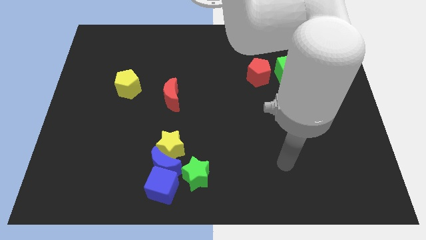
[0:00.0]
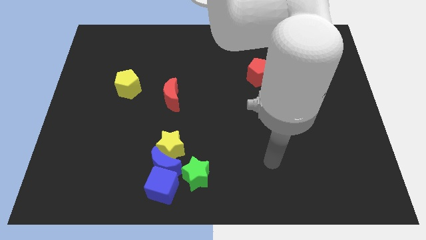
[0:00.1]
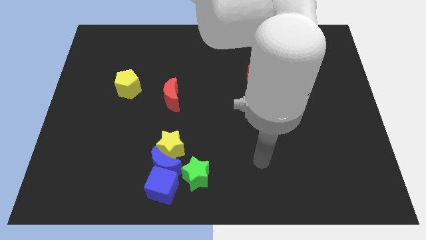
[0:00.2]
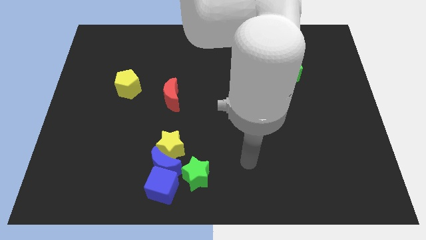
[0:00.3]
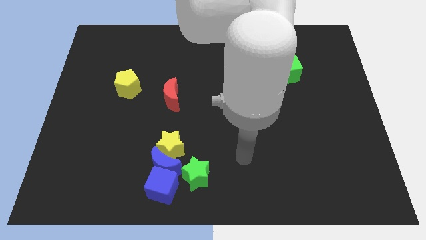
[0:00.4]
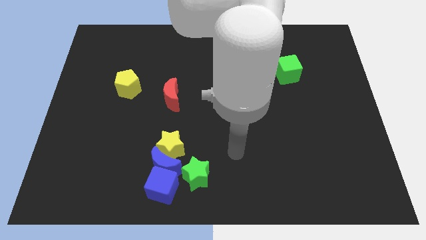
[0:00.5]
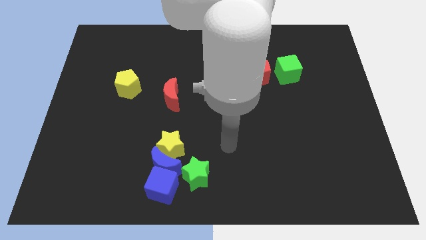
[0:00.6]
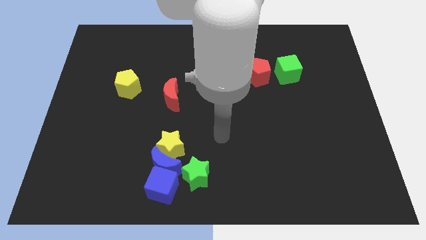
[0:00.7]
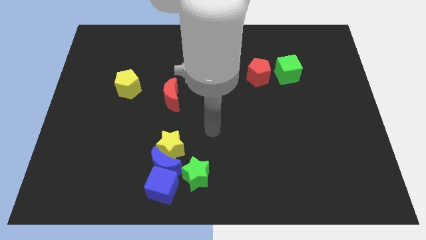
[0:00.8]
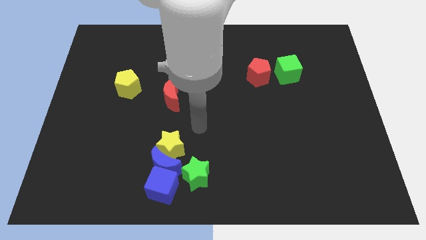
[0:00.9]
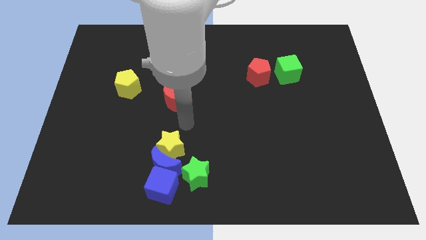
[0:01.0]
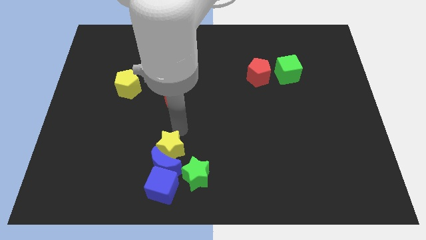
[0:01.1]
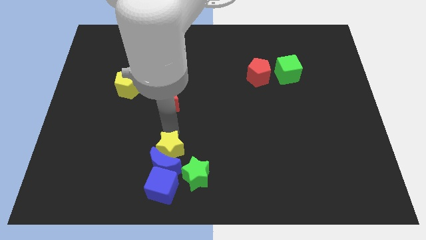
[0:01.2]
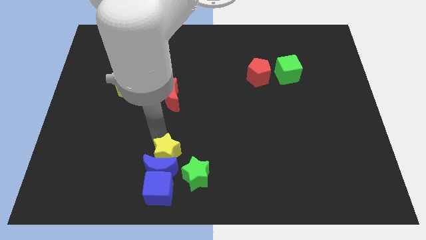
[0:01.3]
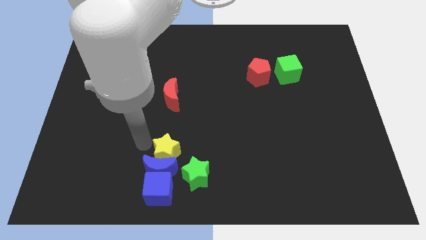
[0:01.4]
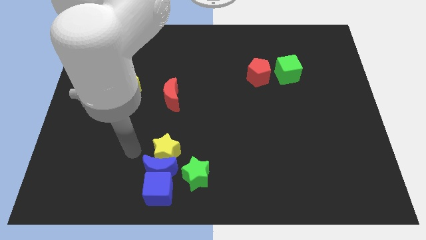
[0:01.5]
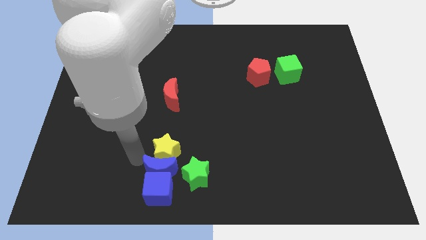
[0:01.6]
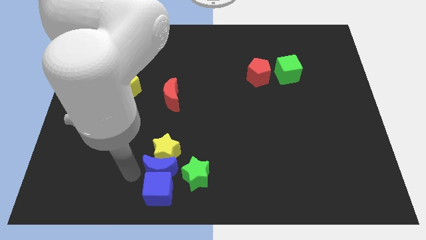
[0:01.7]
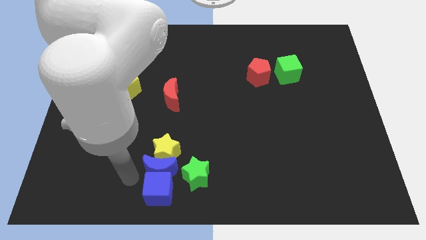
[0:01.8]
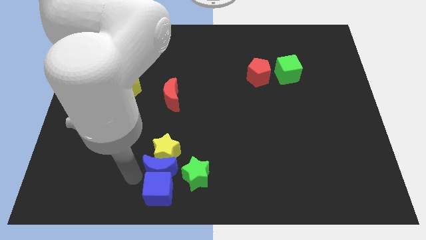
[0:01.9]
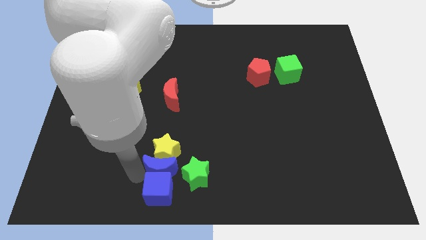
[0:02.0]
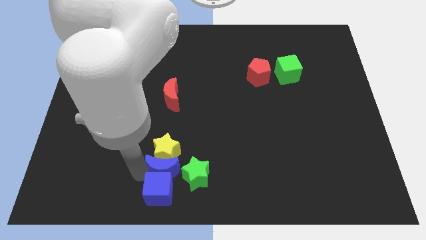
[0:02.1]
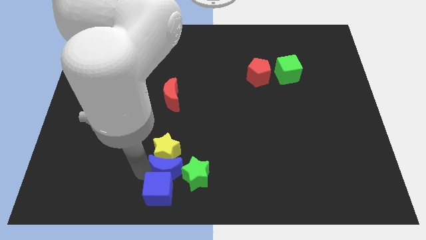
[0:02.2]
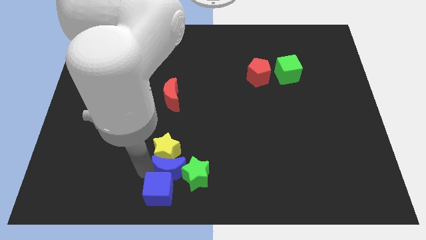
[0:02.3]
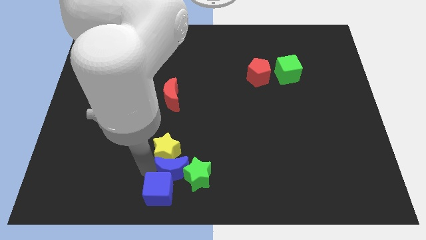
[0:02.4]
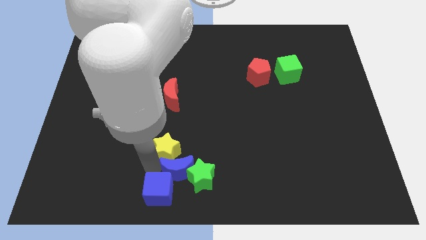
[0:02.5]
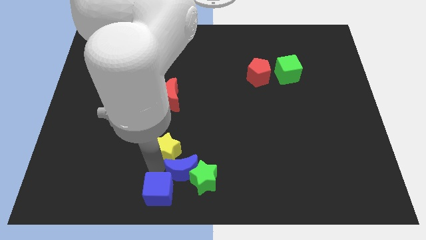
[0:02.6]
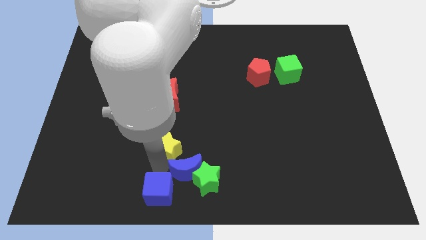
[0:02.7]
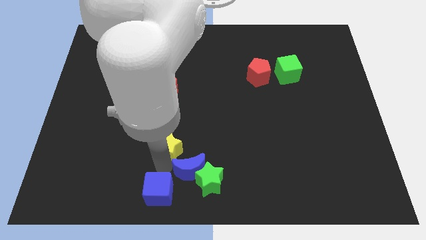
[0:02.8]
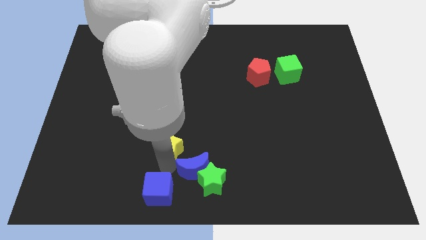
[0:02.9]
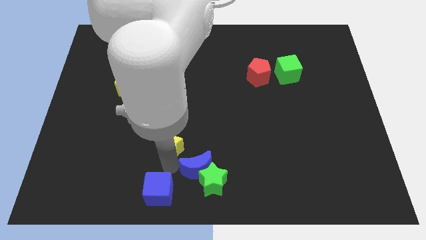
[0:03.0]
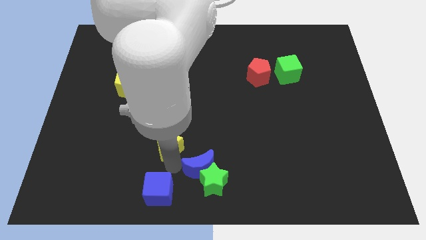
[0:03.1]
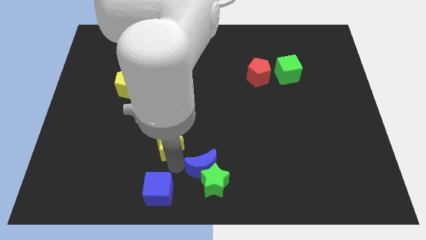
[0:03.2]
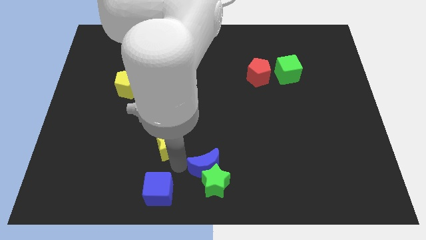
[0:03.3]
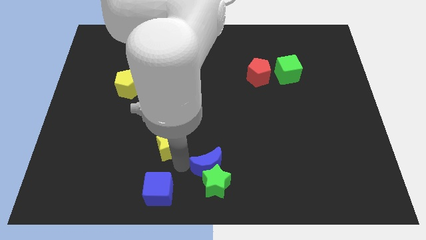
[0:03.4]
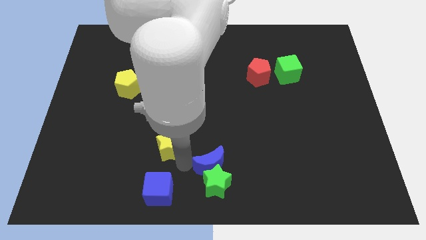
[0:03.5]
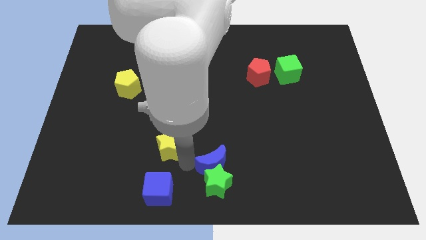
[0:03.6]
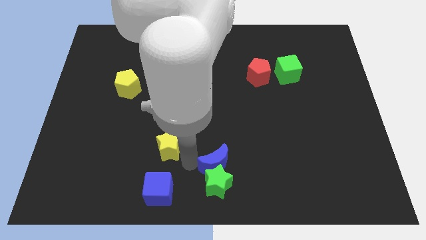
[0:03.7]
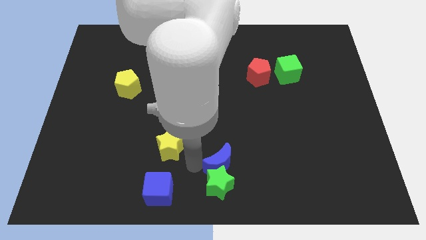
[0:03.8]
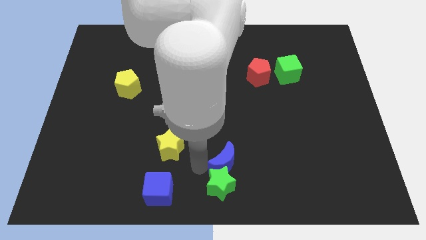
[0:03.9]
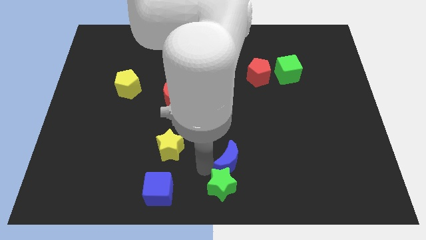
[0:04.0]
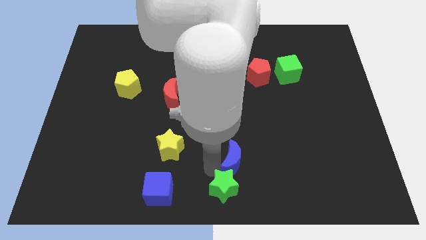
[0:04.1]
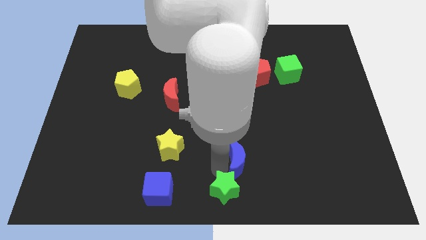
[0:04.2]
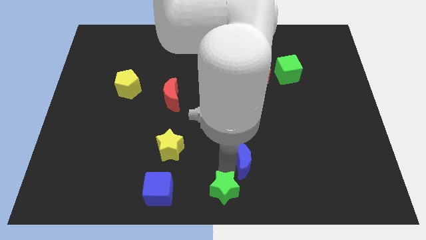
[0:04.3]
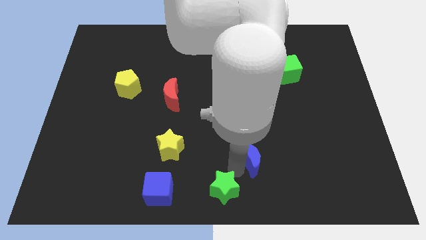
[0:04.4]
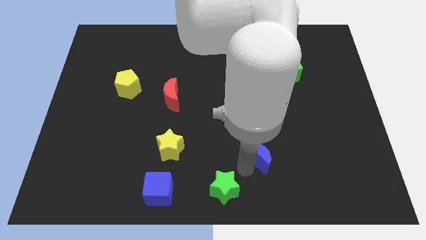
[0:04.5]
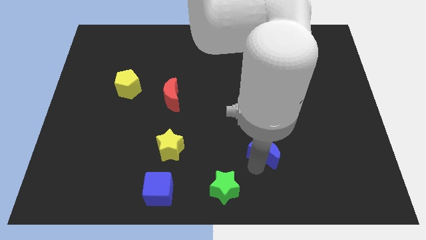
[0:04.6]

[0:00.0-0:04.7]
move the blue moon to the right

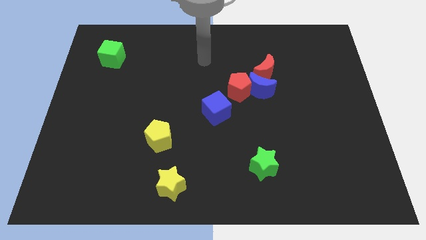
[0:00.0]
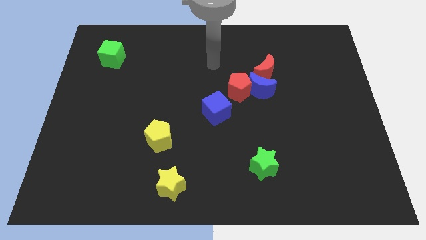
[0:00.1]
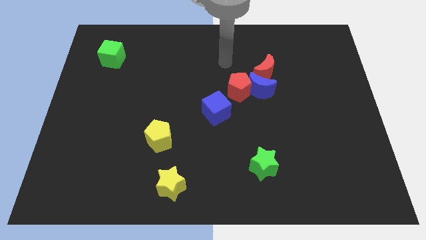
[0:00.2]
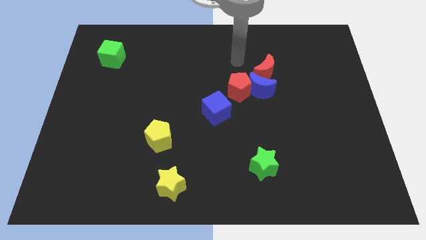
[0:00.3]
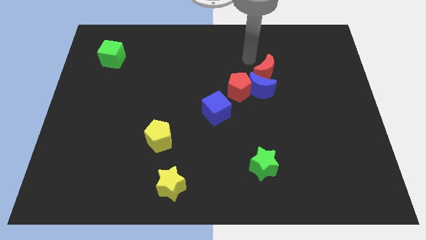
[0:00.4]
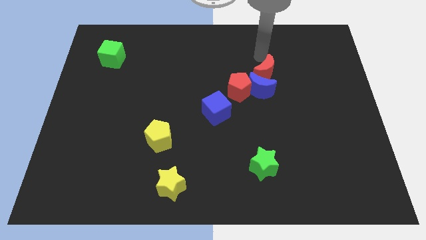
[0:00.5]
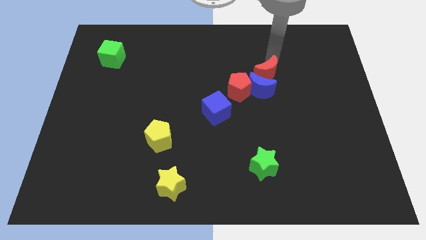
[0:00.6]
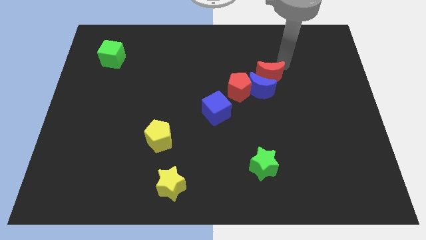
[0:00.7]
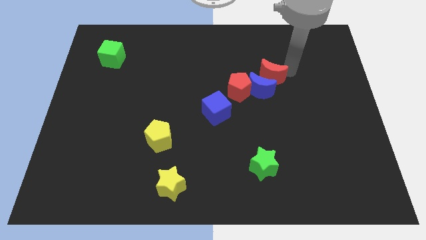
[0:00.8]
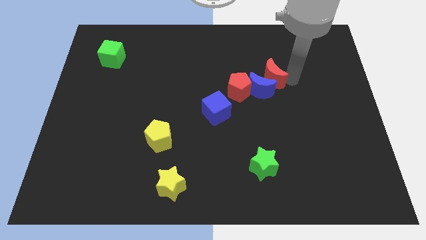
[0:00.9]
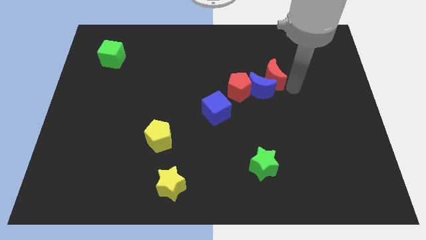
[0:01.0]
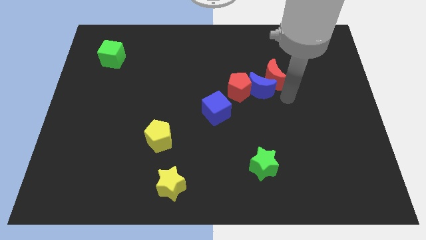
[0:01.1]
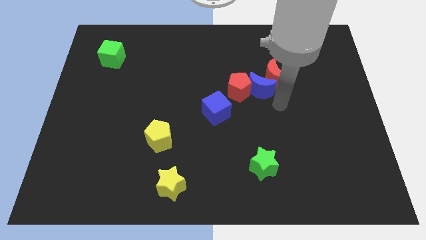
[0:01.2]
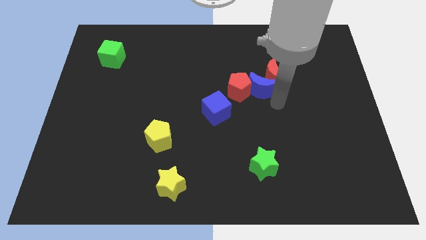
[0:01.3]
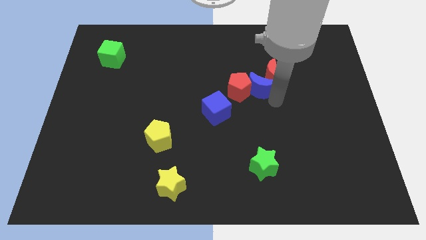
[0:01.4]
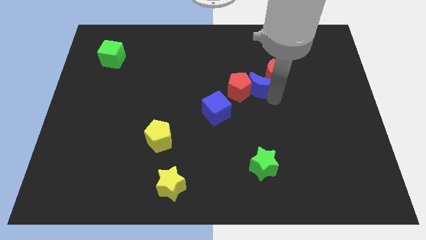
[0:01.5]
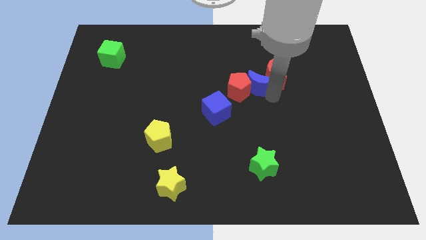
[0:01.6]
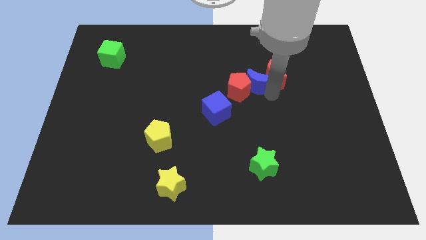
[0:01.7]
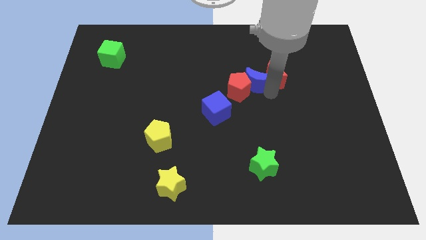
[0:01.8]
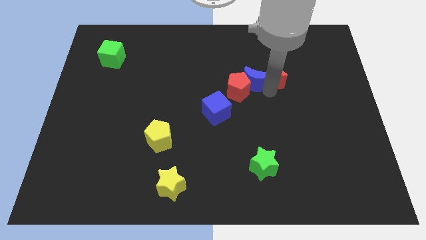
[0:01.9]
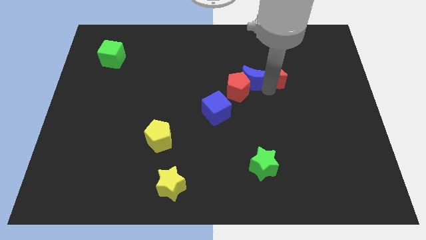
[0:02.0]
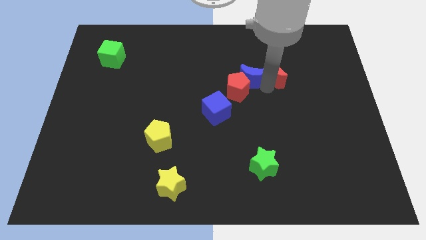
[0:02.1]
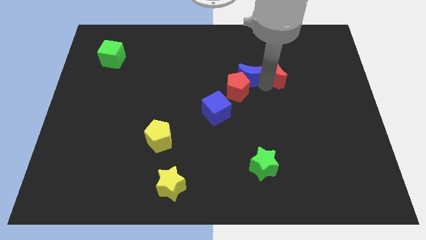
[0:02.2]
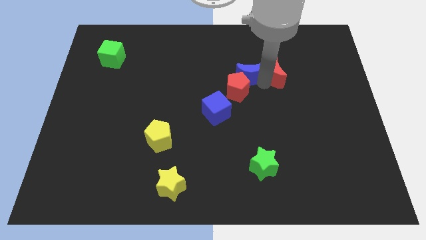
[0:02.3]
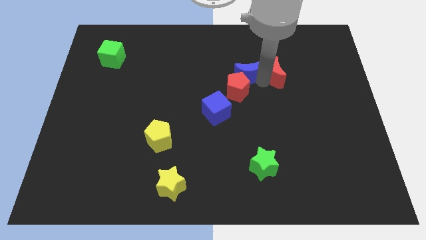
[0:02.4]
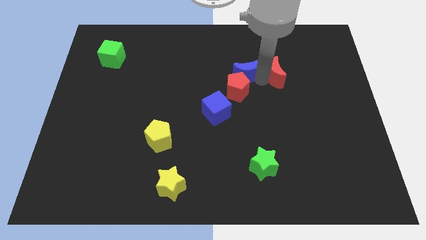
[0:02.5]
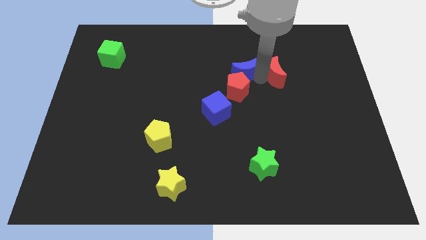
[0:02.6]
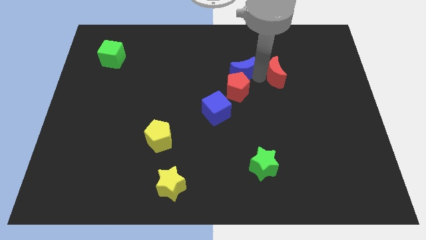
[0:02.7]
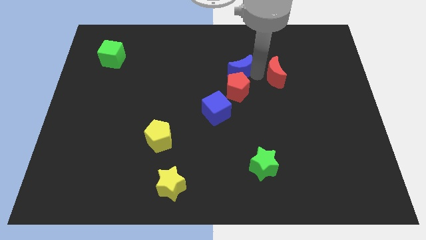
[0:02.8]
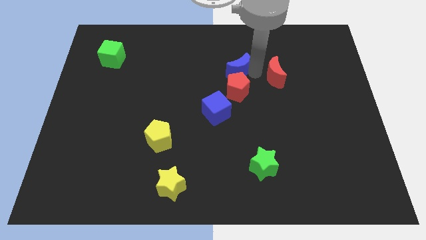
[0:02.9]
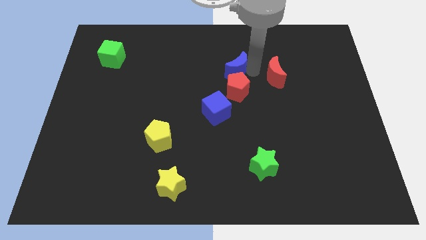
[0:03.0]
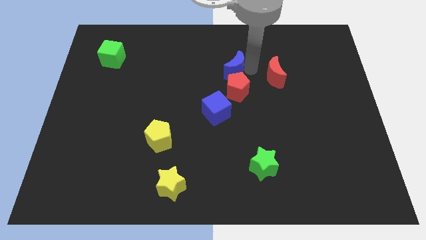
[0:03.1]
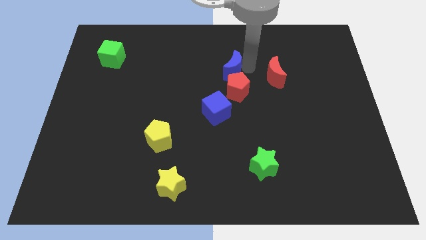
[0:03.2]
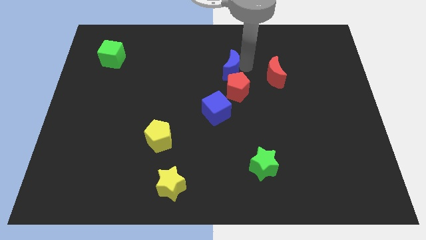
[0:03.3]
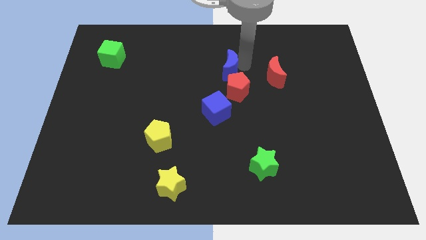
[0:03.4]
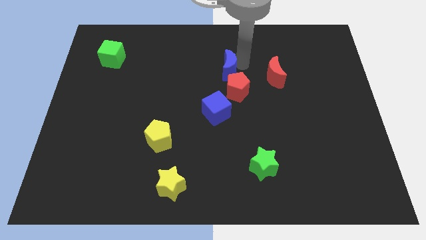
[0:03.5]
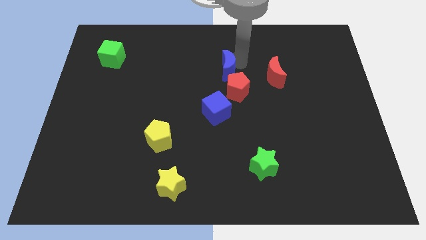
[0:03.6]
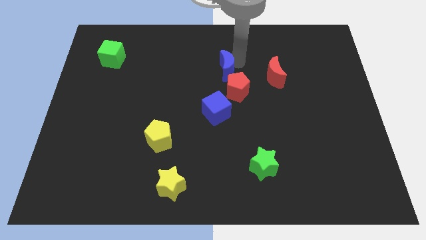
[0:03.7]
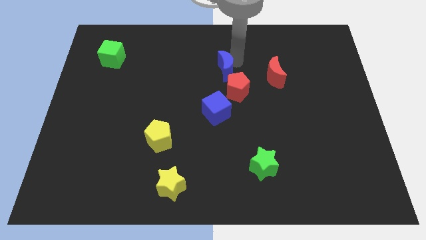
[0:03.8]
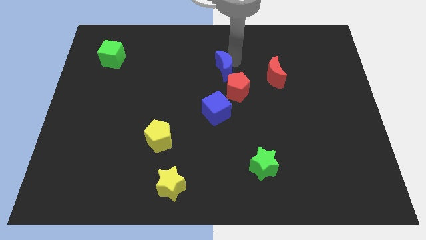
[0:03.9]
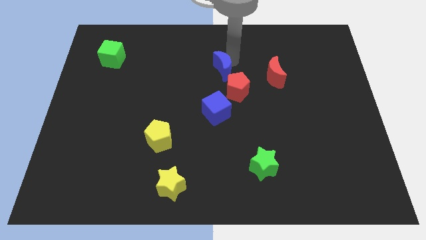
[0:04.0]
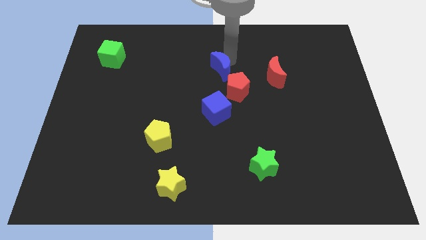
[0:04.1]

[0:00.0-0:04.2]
slightly push the blue moon to the left
